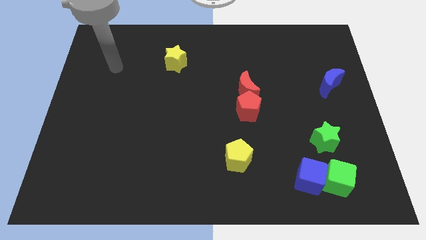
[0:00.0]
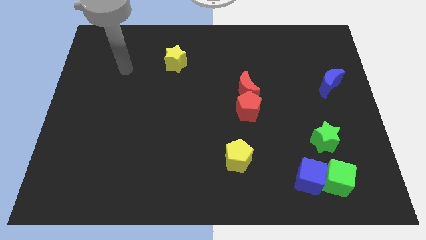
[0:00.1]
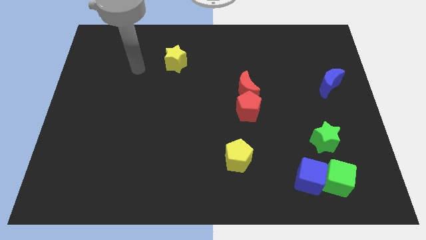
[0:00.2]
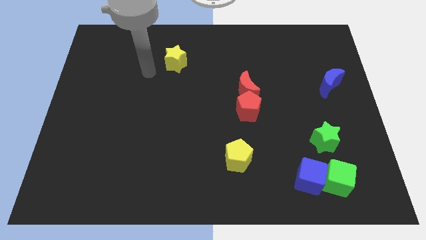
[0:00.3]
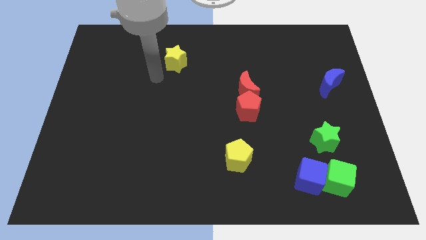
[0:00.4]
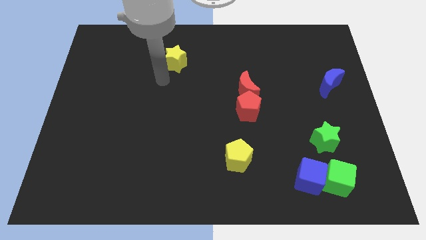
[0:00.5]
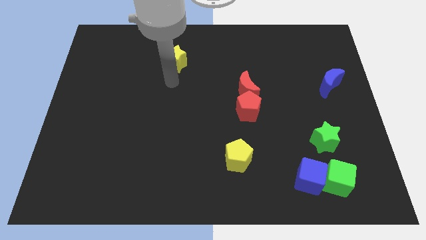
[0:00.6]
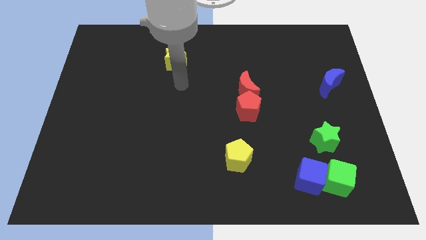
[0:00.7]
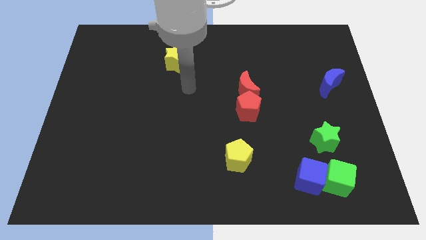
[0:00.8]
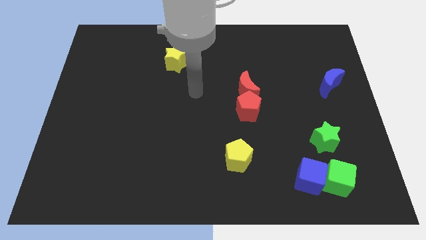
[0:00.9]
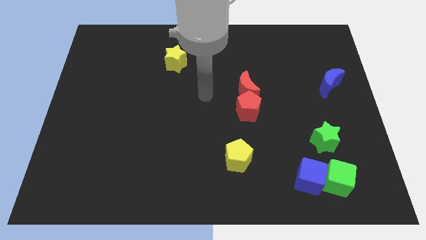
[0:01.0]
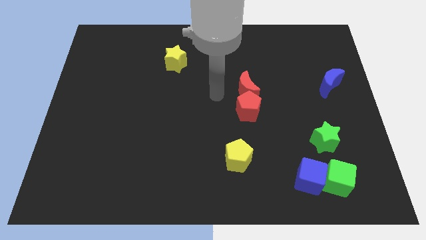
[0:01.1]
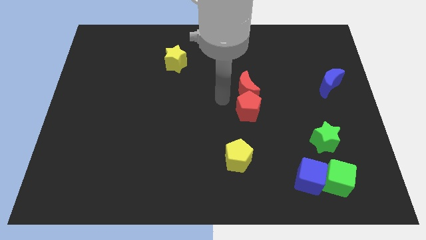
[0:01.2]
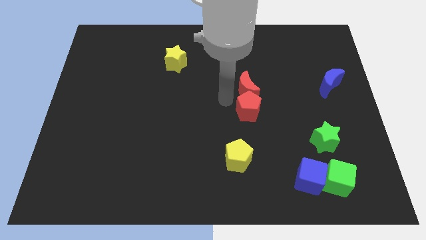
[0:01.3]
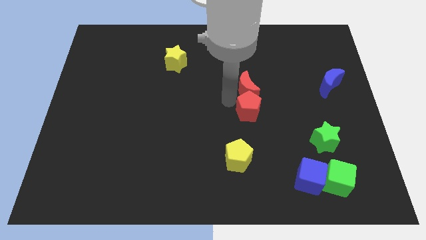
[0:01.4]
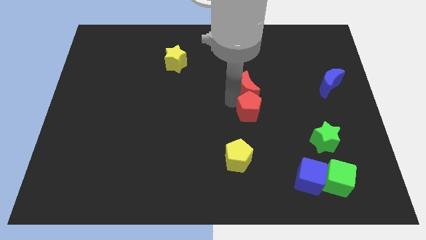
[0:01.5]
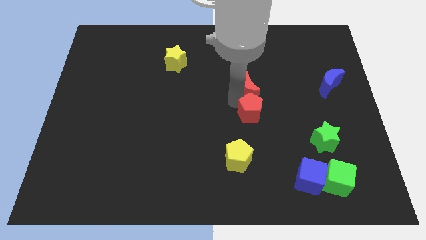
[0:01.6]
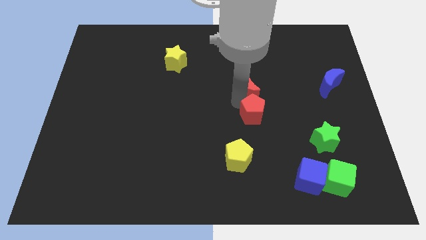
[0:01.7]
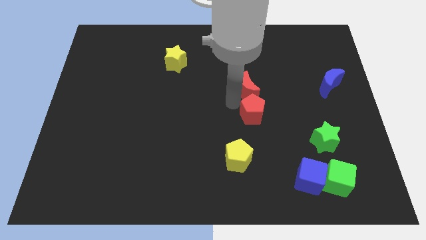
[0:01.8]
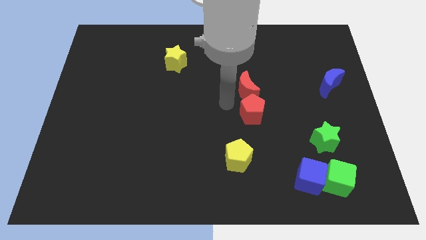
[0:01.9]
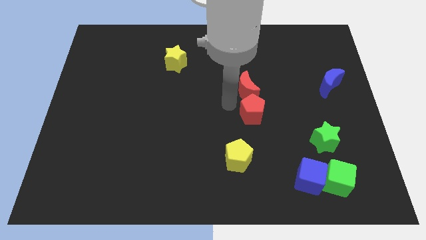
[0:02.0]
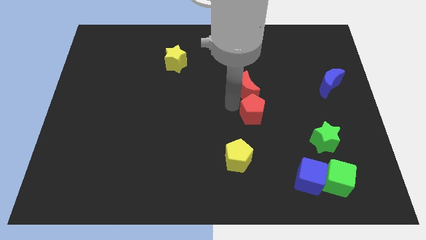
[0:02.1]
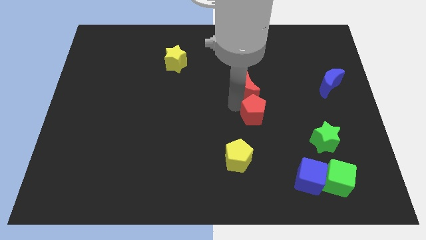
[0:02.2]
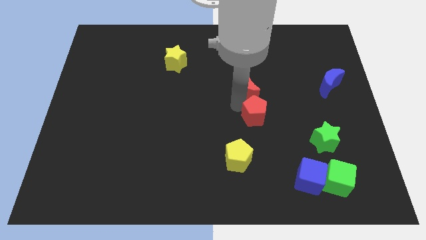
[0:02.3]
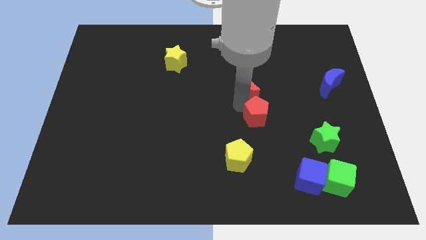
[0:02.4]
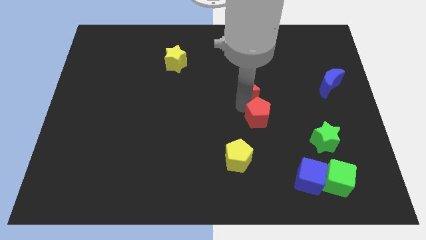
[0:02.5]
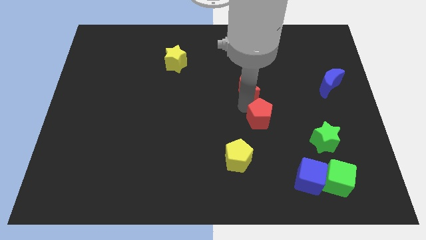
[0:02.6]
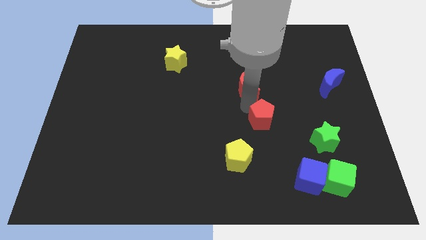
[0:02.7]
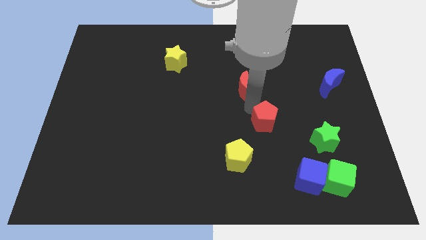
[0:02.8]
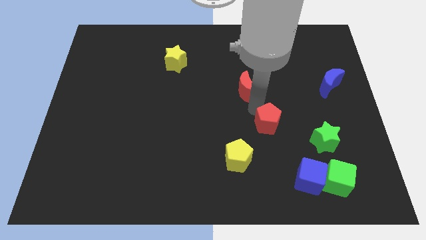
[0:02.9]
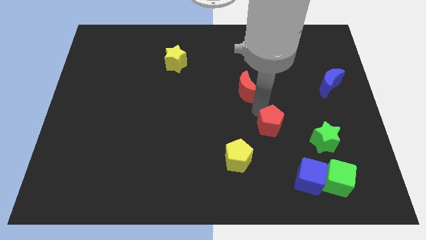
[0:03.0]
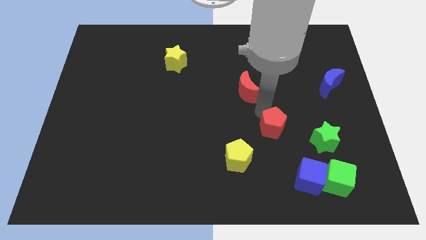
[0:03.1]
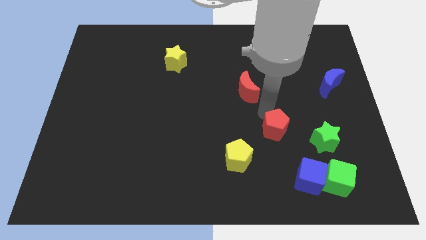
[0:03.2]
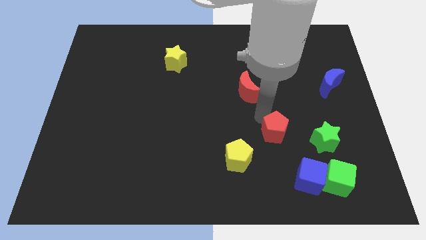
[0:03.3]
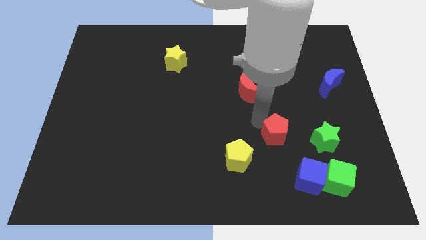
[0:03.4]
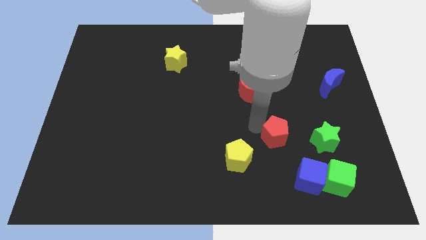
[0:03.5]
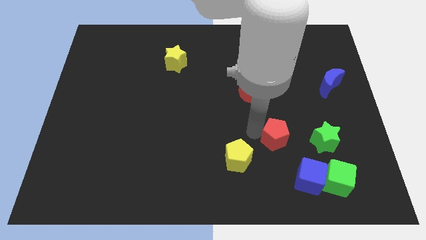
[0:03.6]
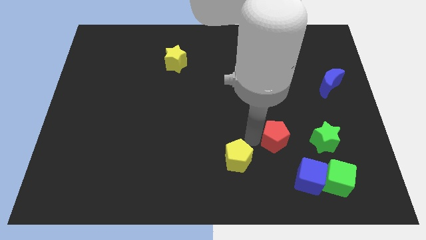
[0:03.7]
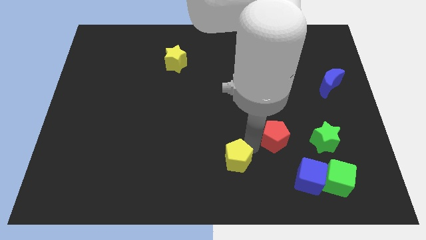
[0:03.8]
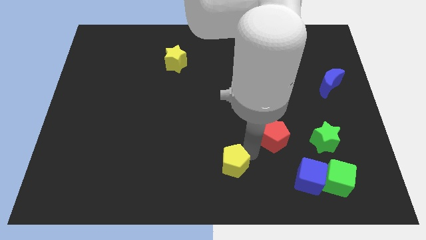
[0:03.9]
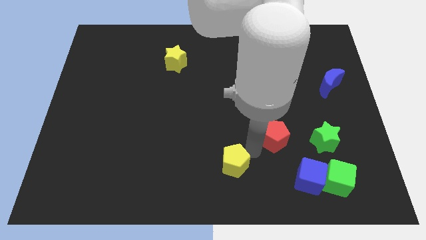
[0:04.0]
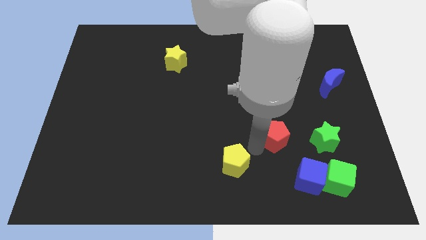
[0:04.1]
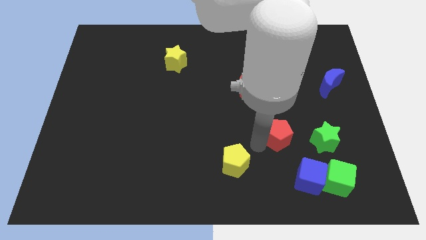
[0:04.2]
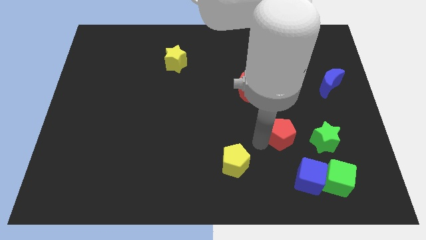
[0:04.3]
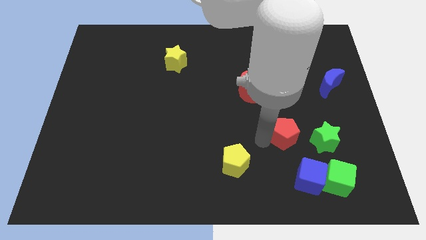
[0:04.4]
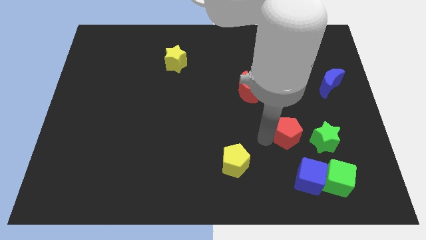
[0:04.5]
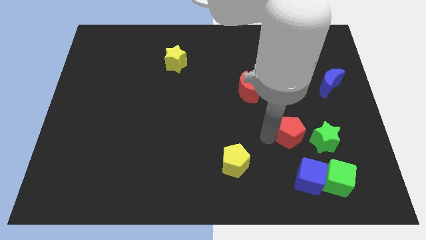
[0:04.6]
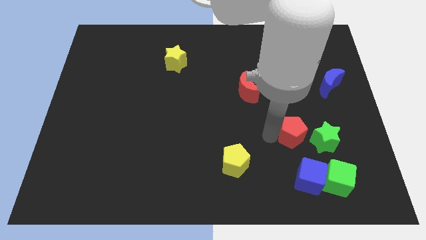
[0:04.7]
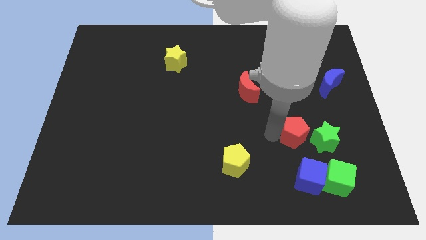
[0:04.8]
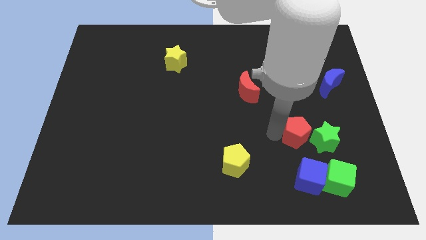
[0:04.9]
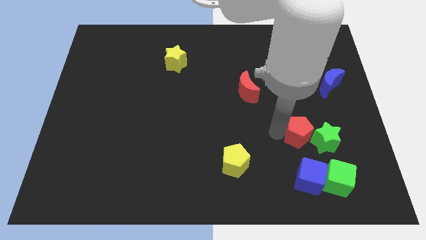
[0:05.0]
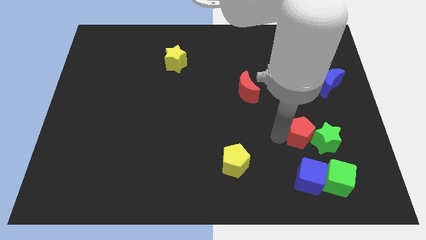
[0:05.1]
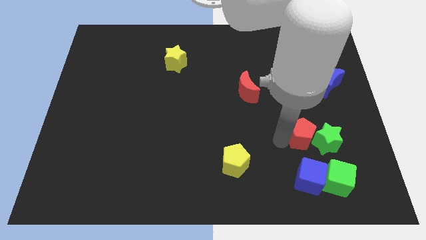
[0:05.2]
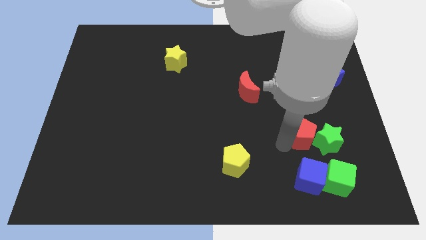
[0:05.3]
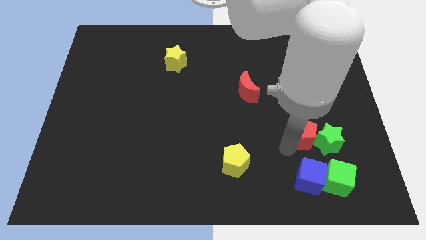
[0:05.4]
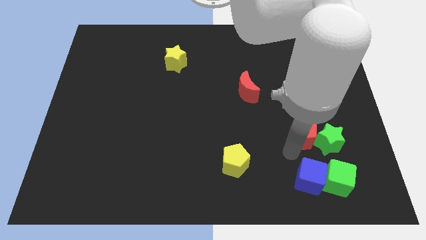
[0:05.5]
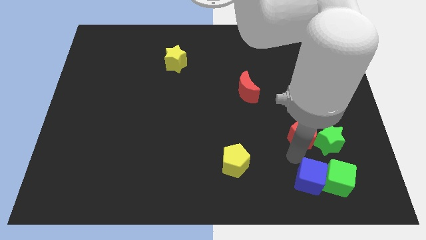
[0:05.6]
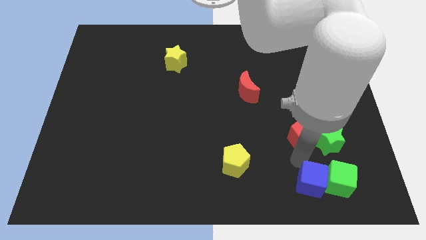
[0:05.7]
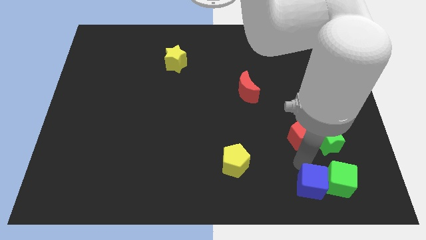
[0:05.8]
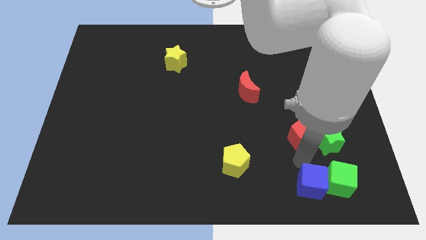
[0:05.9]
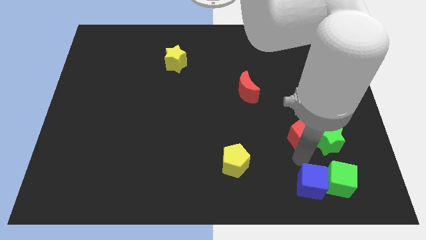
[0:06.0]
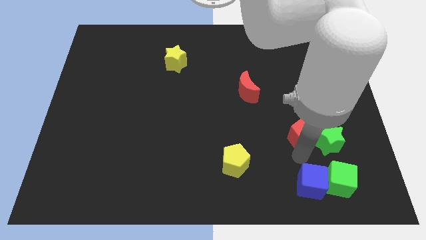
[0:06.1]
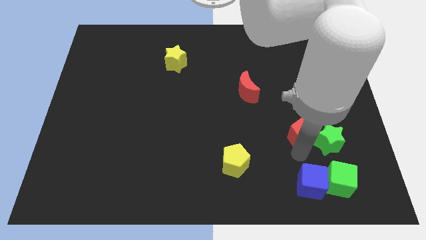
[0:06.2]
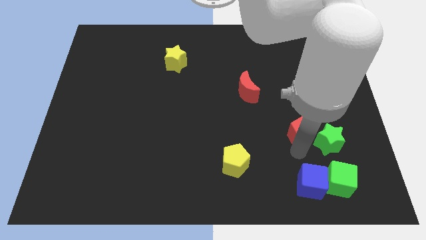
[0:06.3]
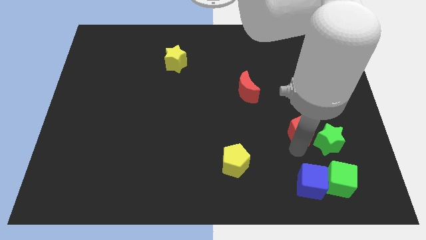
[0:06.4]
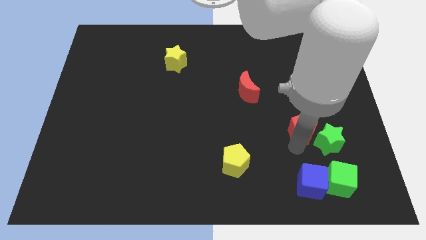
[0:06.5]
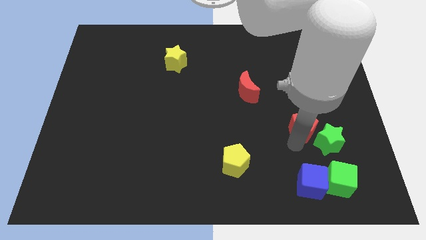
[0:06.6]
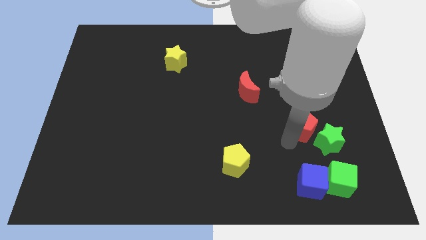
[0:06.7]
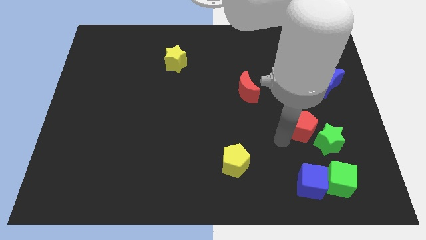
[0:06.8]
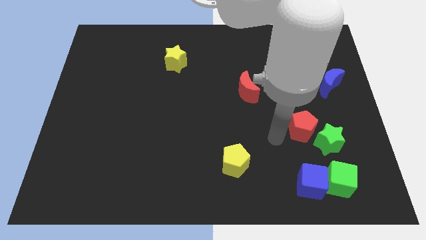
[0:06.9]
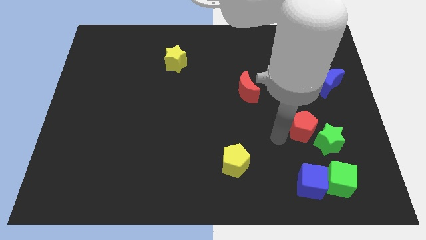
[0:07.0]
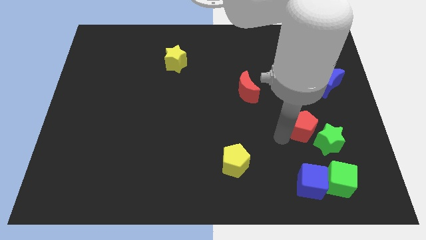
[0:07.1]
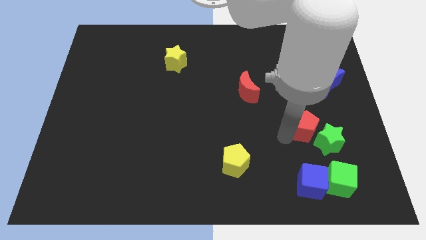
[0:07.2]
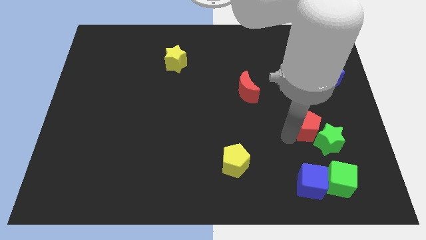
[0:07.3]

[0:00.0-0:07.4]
slide the red pentagon to the top side of the green cube
